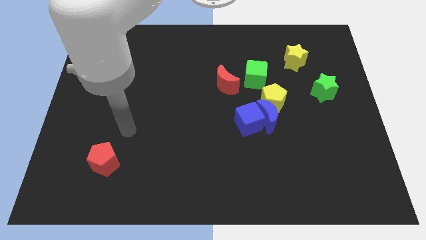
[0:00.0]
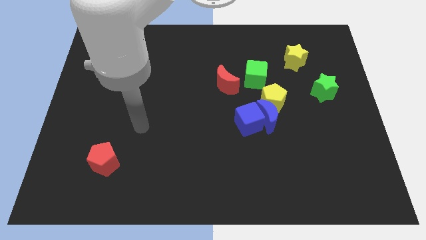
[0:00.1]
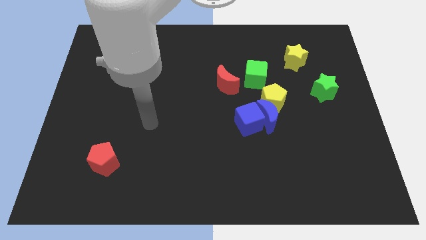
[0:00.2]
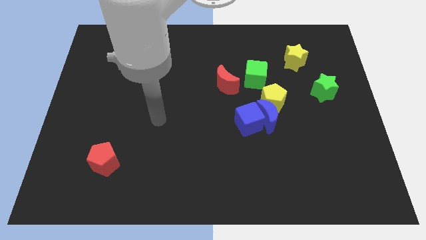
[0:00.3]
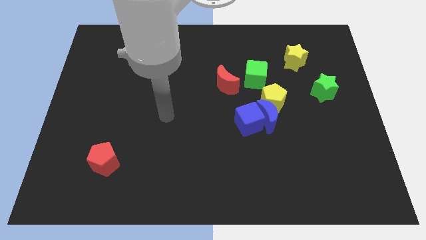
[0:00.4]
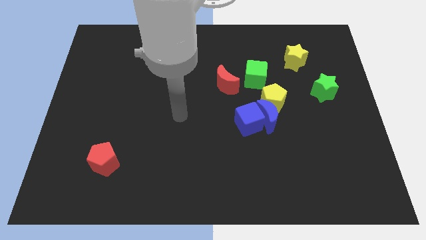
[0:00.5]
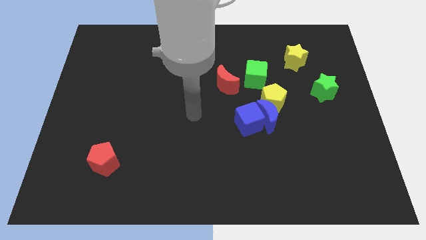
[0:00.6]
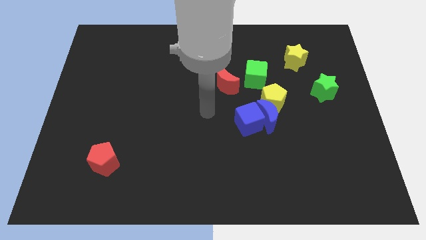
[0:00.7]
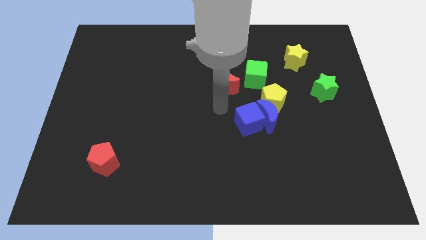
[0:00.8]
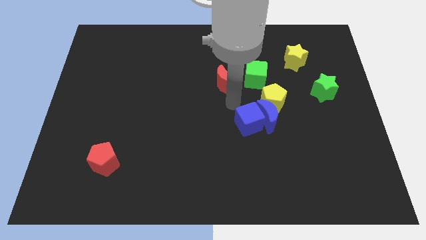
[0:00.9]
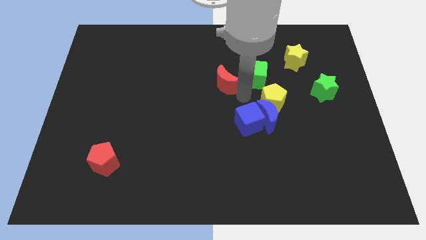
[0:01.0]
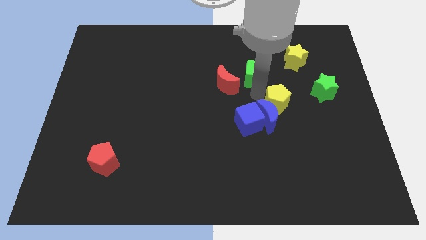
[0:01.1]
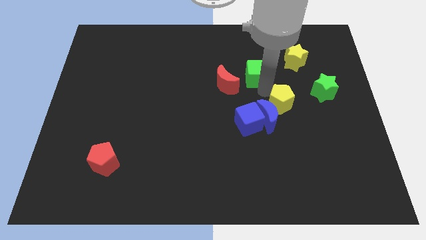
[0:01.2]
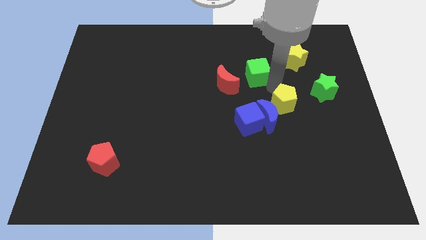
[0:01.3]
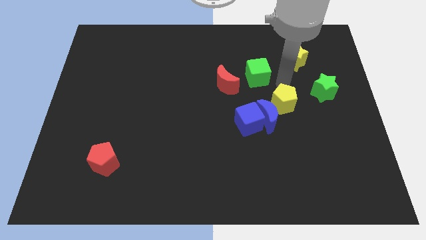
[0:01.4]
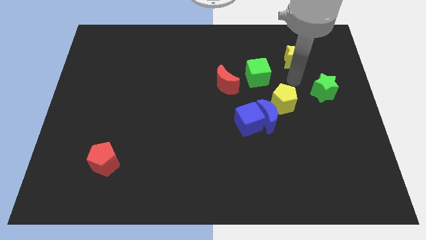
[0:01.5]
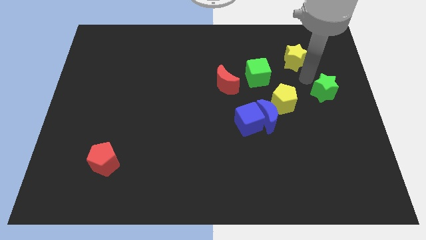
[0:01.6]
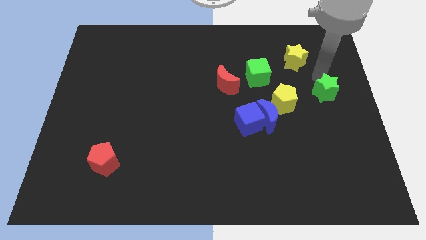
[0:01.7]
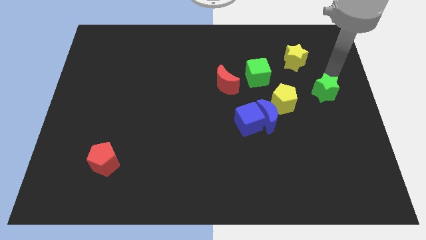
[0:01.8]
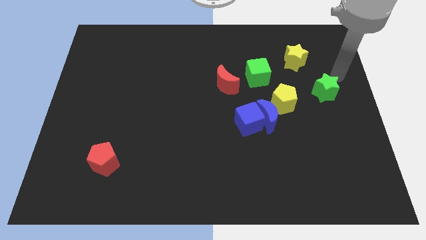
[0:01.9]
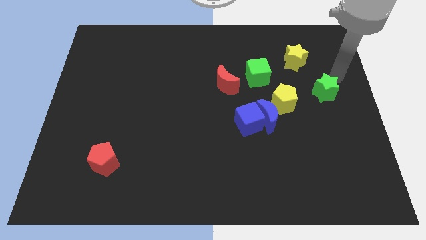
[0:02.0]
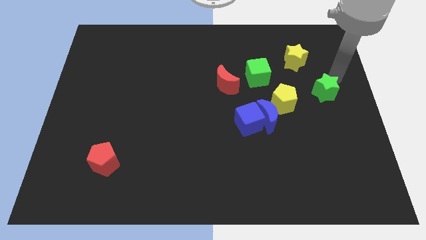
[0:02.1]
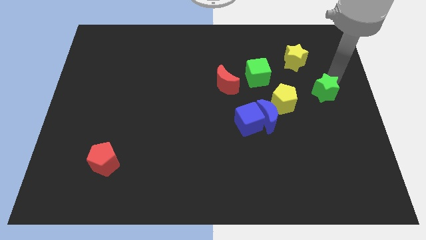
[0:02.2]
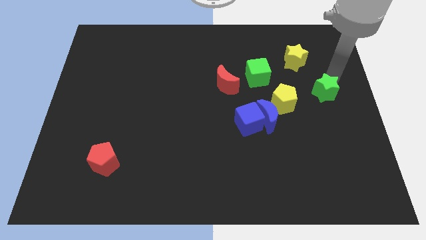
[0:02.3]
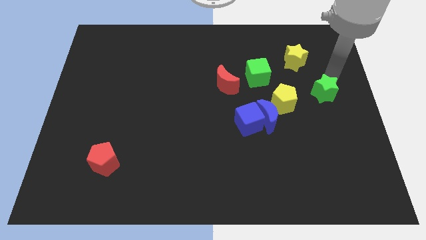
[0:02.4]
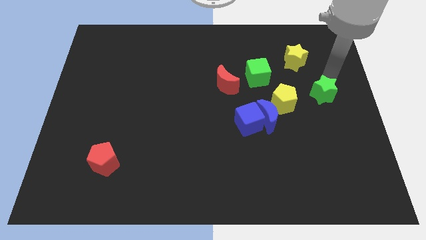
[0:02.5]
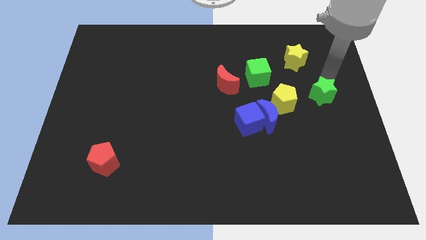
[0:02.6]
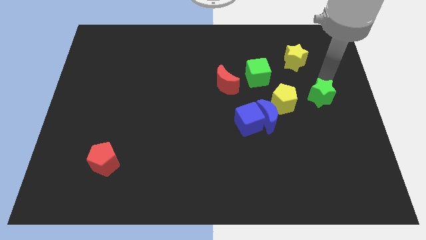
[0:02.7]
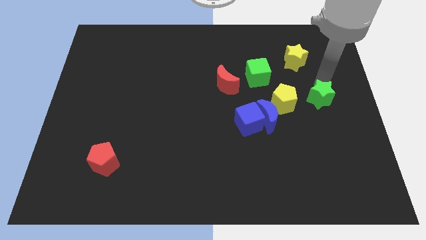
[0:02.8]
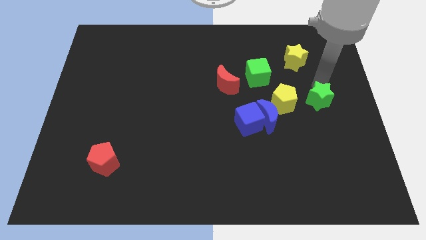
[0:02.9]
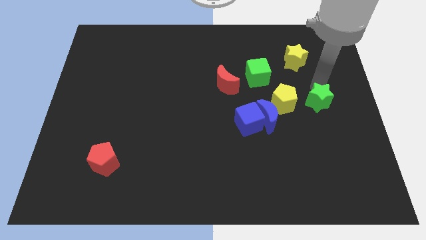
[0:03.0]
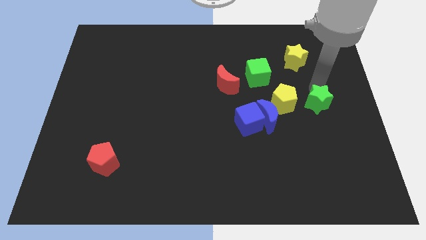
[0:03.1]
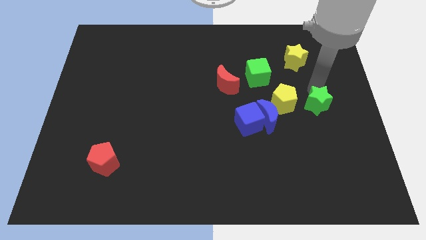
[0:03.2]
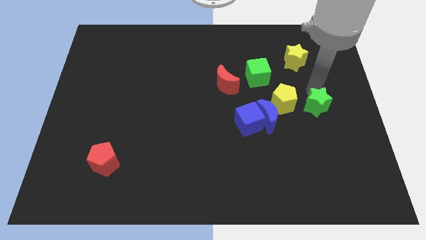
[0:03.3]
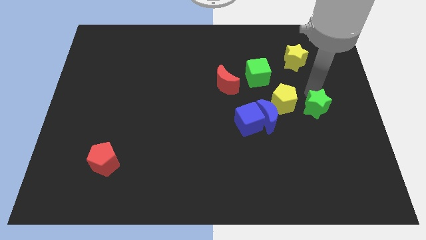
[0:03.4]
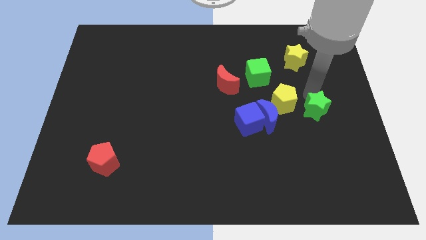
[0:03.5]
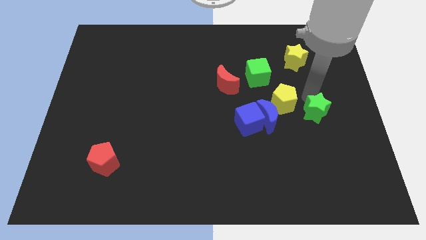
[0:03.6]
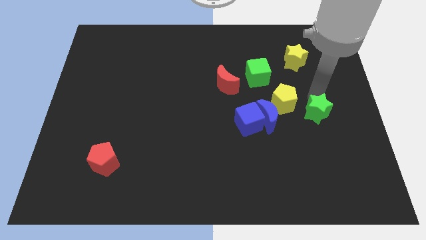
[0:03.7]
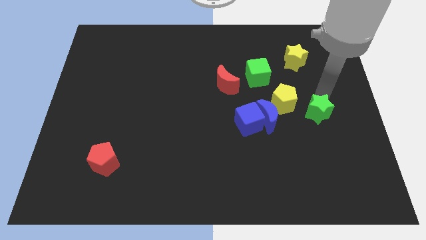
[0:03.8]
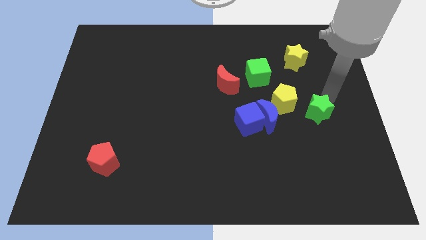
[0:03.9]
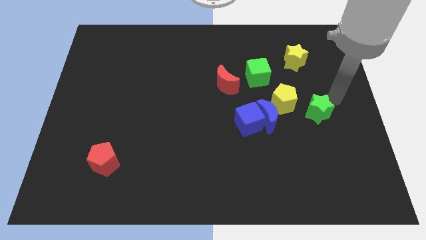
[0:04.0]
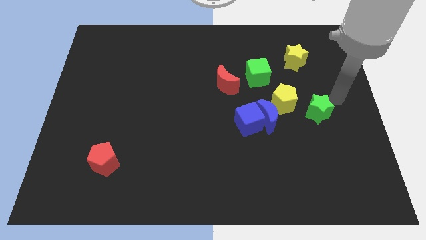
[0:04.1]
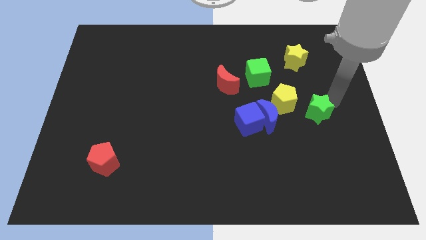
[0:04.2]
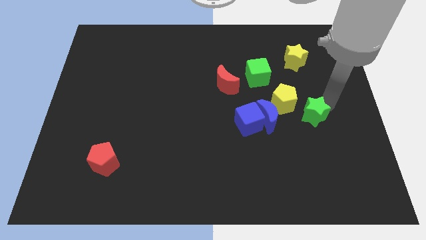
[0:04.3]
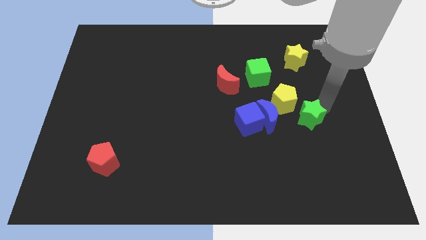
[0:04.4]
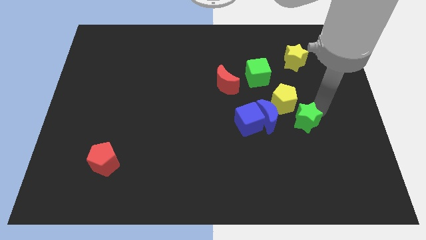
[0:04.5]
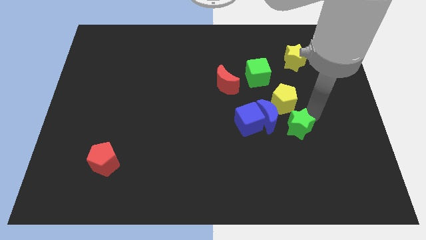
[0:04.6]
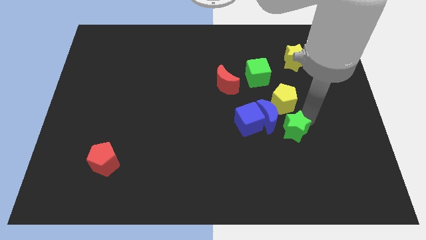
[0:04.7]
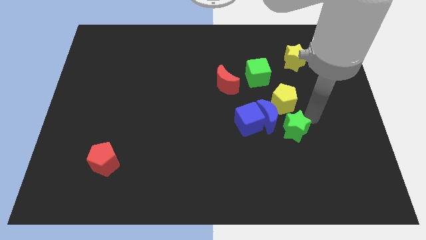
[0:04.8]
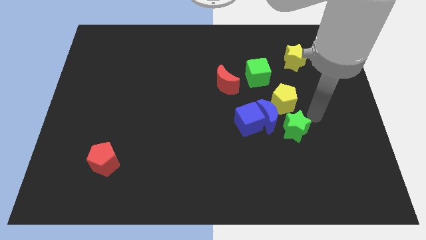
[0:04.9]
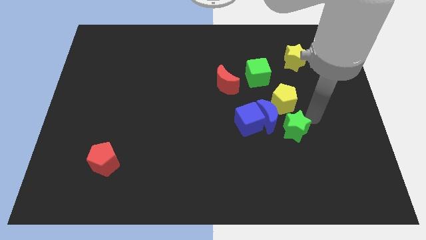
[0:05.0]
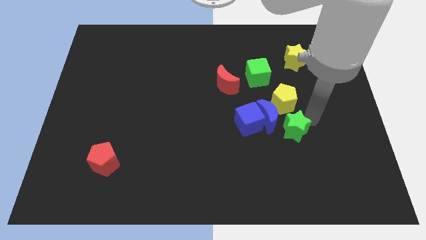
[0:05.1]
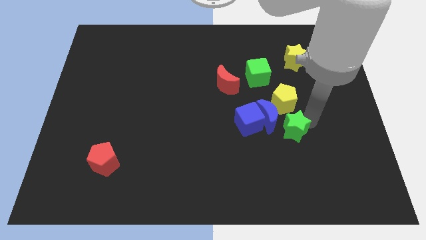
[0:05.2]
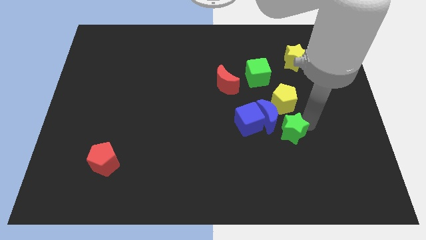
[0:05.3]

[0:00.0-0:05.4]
move the green star diagonally down and to the right of the blue cube

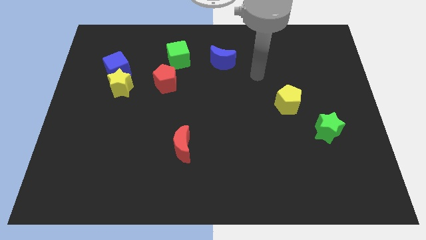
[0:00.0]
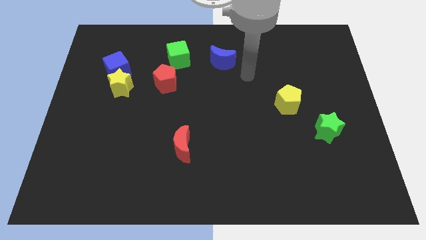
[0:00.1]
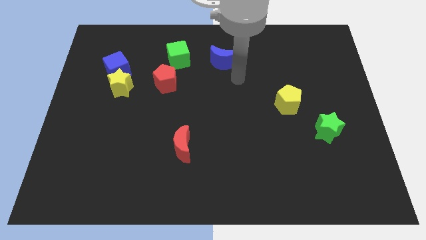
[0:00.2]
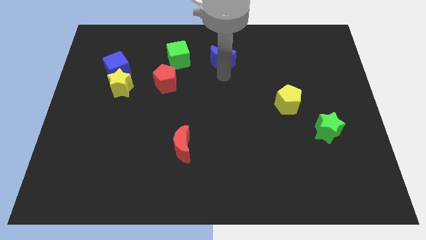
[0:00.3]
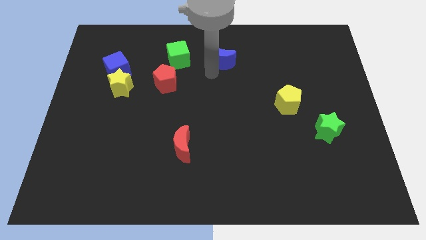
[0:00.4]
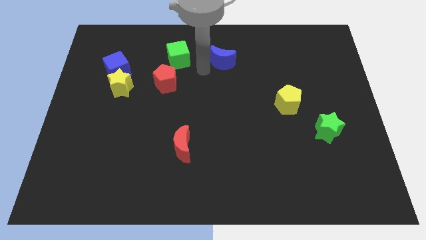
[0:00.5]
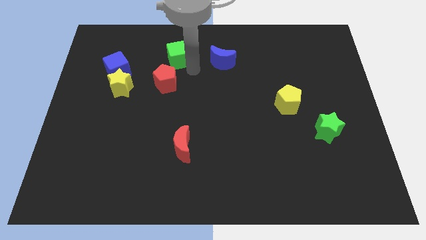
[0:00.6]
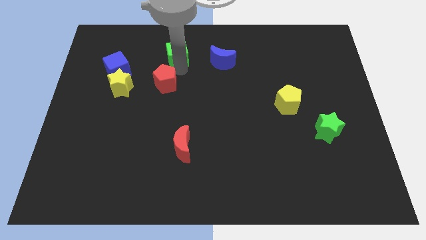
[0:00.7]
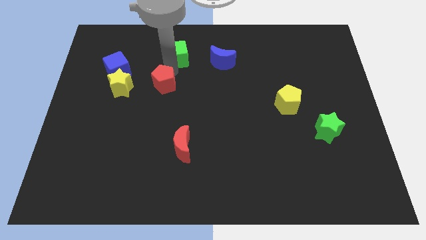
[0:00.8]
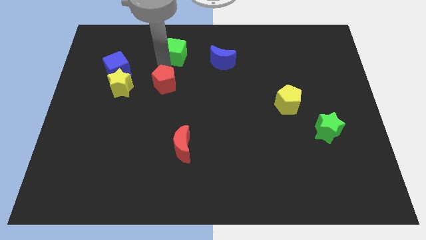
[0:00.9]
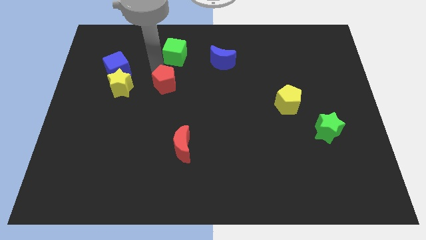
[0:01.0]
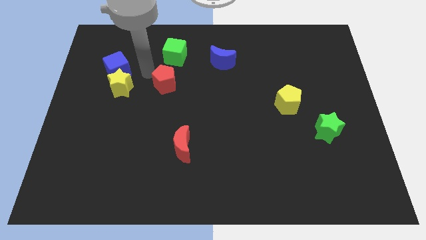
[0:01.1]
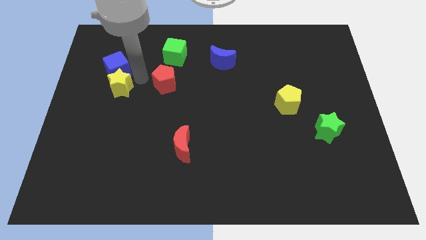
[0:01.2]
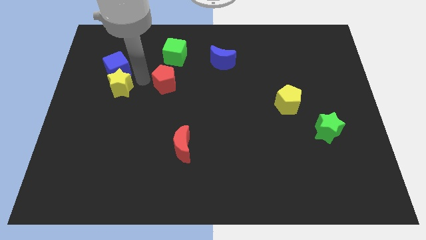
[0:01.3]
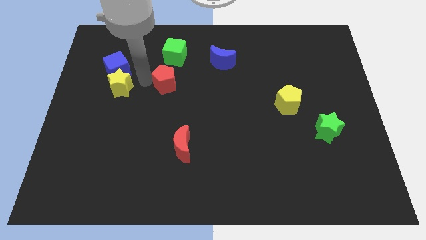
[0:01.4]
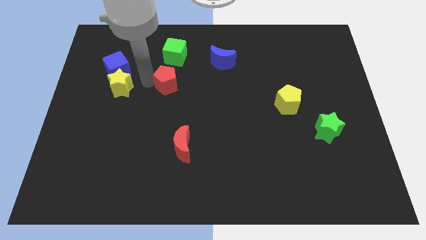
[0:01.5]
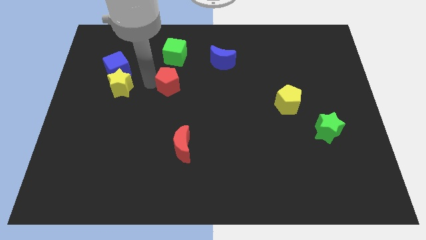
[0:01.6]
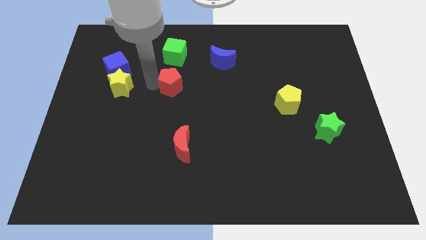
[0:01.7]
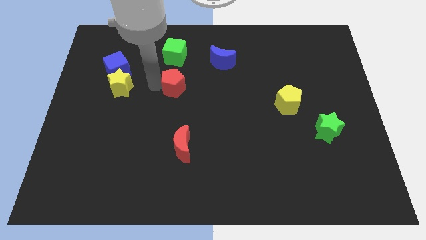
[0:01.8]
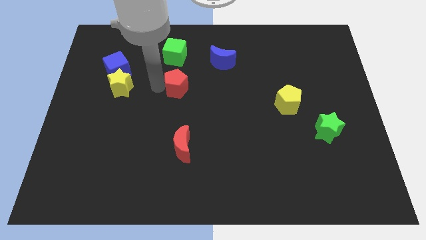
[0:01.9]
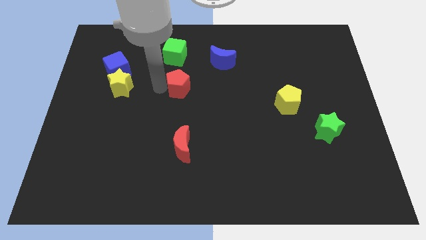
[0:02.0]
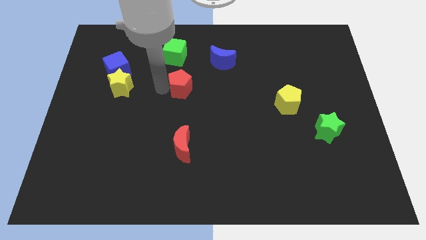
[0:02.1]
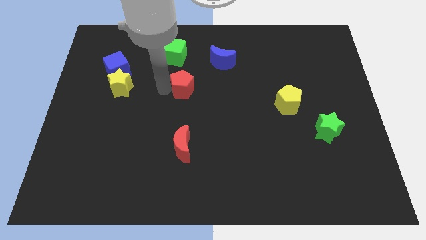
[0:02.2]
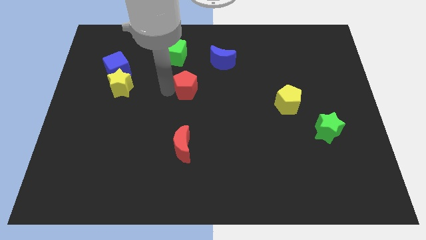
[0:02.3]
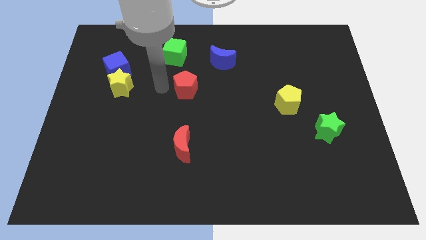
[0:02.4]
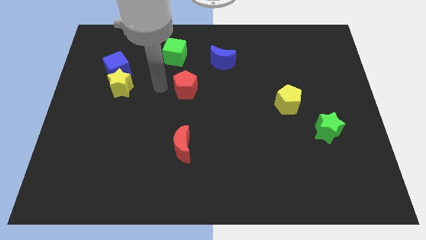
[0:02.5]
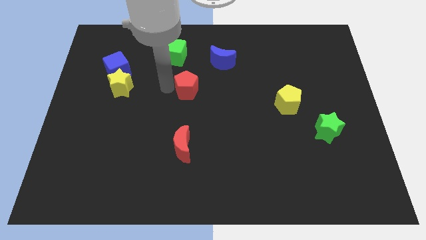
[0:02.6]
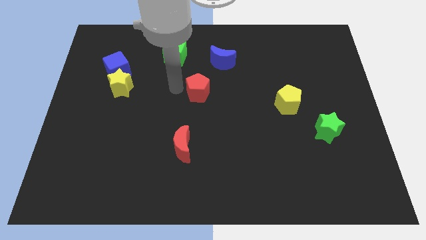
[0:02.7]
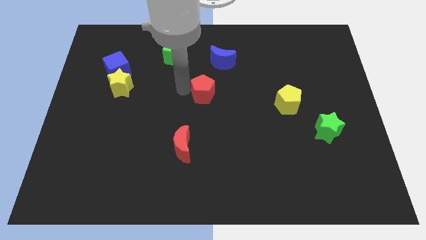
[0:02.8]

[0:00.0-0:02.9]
slide the red pentagon to the bottom of the blue moon
